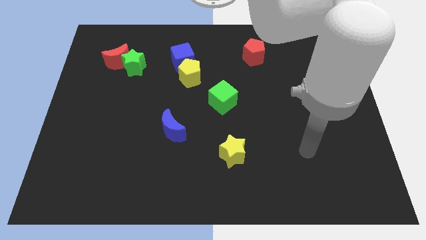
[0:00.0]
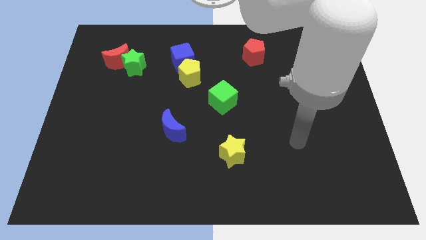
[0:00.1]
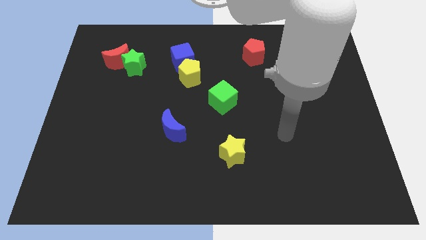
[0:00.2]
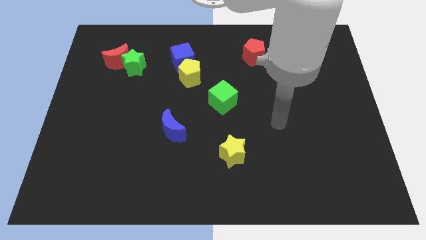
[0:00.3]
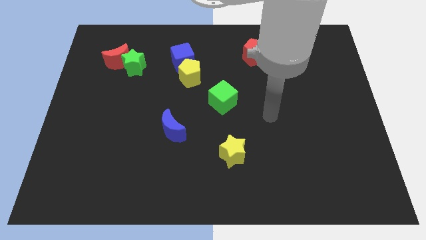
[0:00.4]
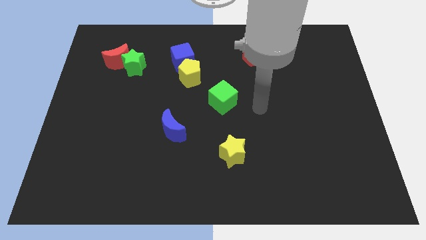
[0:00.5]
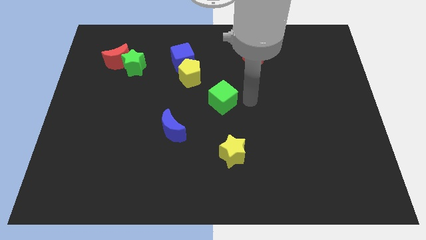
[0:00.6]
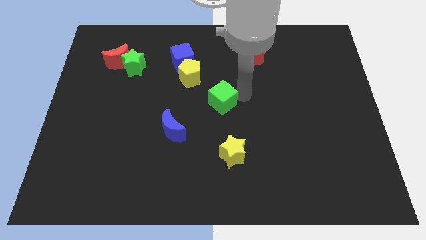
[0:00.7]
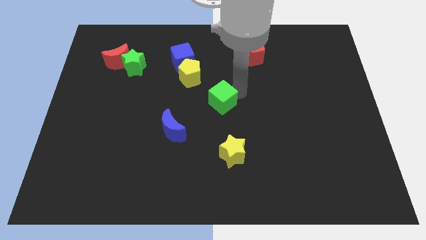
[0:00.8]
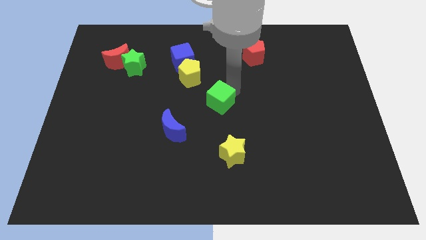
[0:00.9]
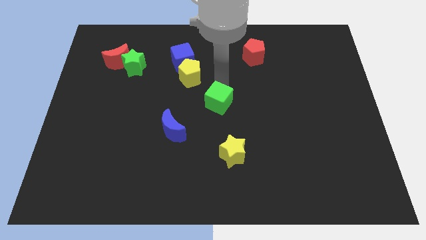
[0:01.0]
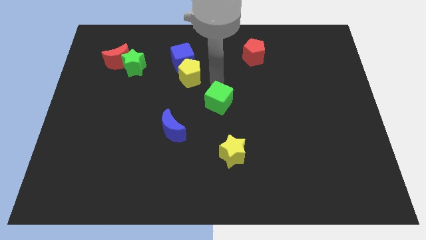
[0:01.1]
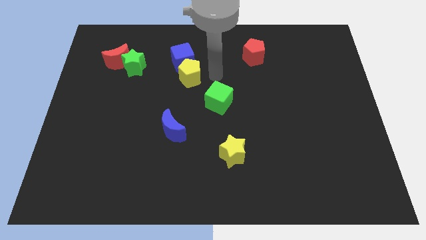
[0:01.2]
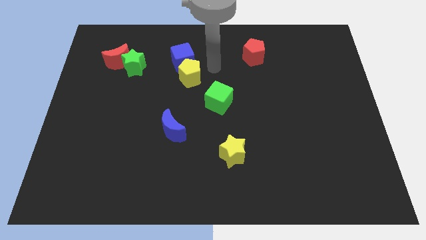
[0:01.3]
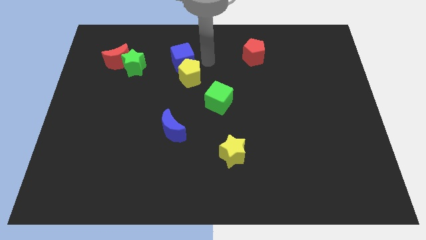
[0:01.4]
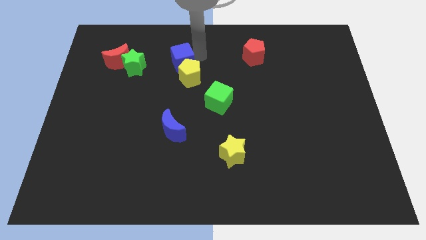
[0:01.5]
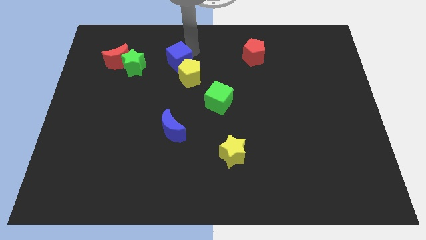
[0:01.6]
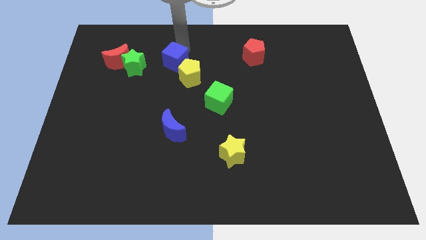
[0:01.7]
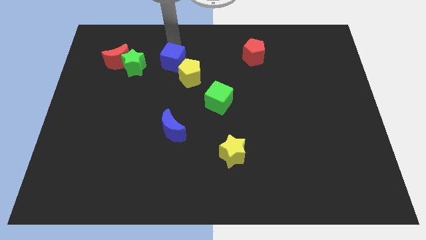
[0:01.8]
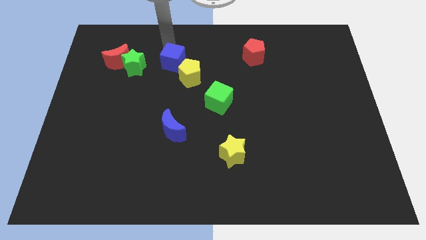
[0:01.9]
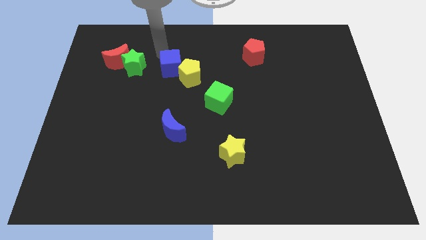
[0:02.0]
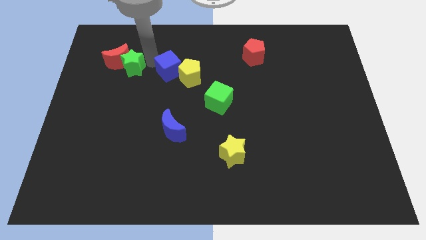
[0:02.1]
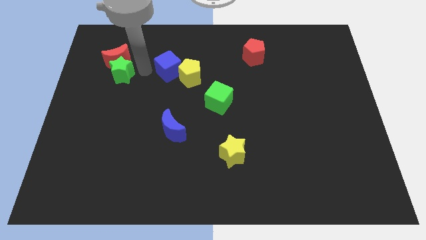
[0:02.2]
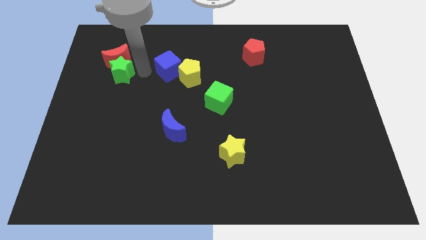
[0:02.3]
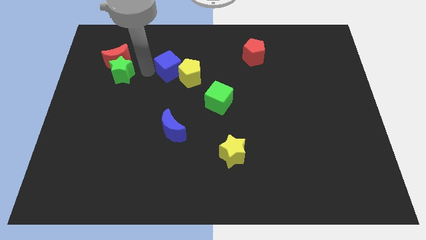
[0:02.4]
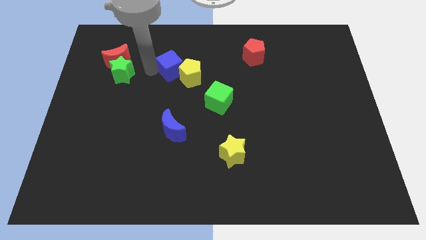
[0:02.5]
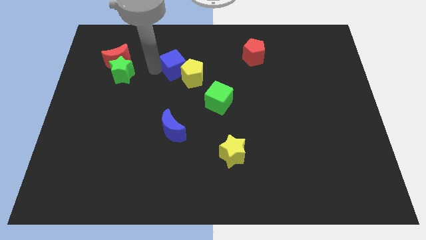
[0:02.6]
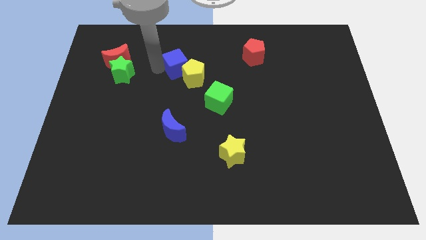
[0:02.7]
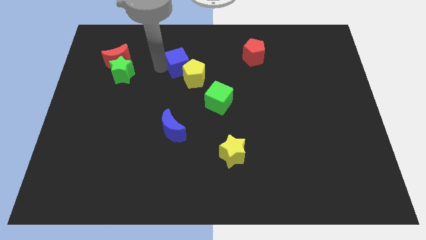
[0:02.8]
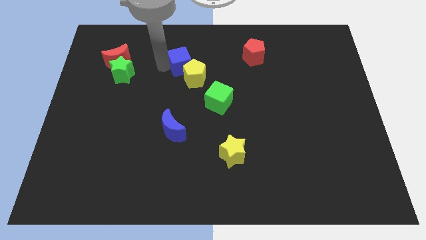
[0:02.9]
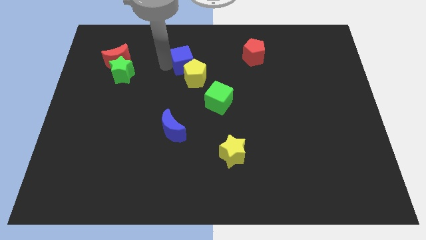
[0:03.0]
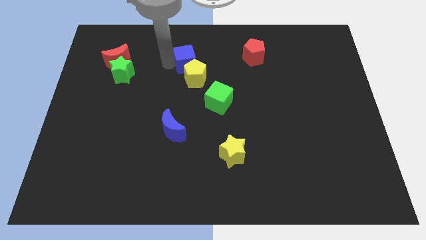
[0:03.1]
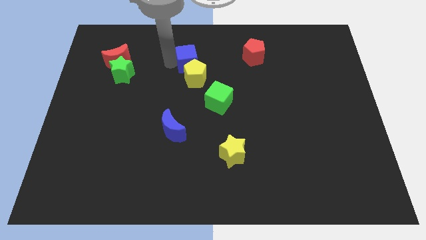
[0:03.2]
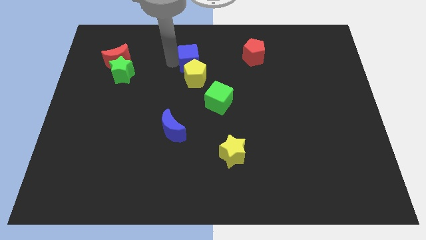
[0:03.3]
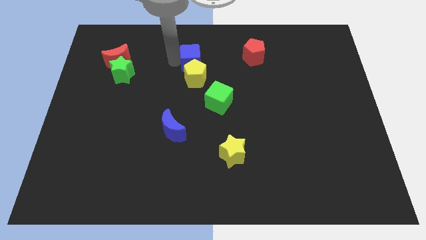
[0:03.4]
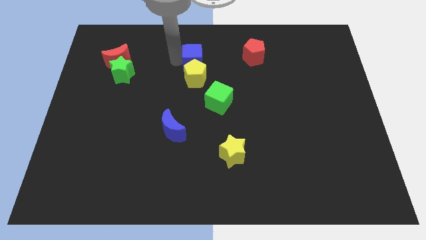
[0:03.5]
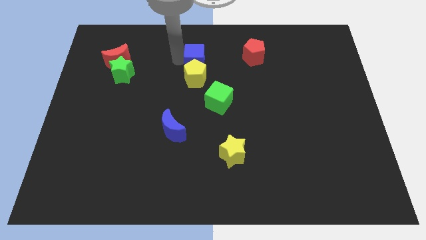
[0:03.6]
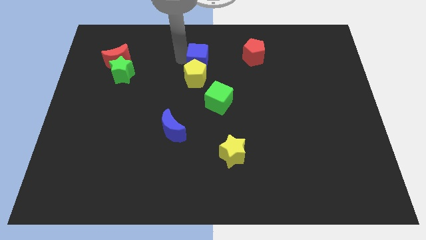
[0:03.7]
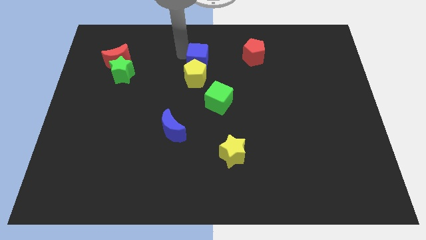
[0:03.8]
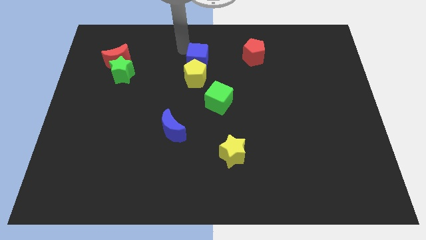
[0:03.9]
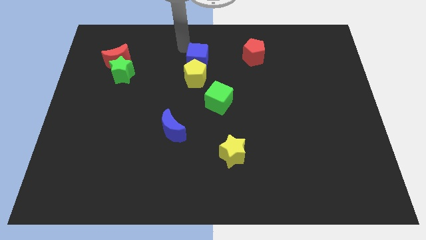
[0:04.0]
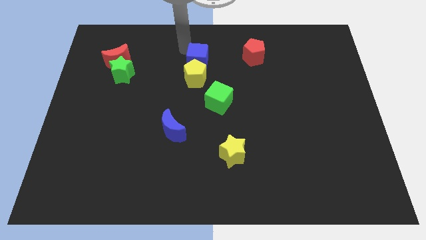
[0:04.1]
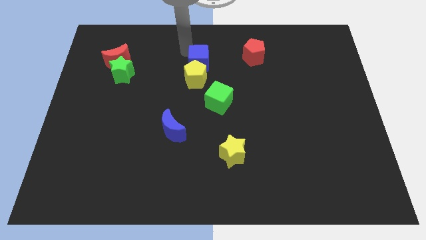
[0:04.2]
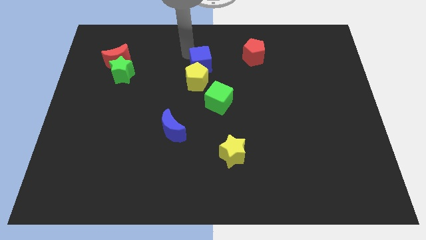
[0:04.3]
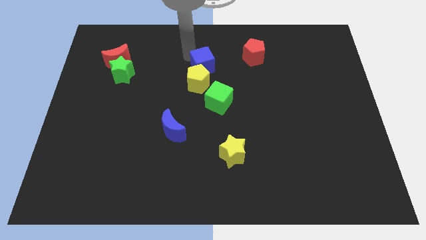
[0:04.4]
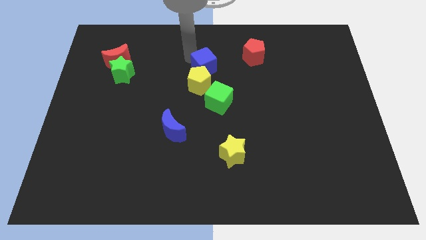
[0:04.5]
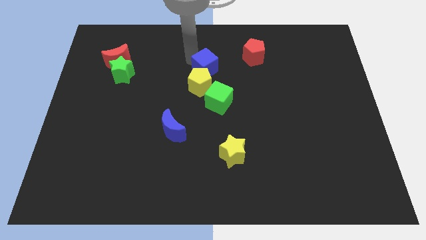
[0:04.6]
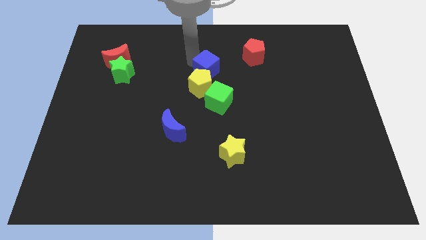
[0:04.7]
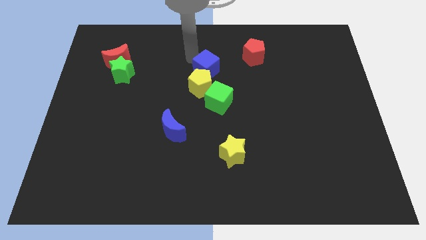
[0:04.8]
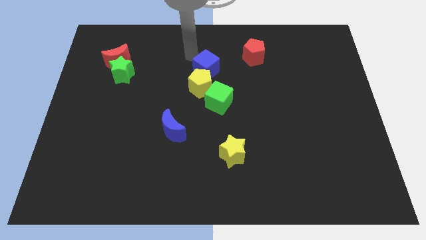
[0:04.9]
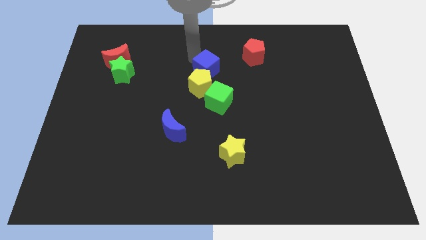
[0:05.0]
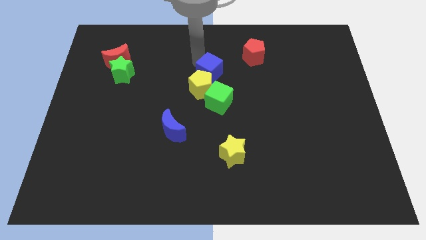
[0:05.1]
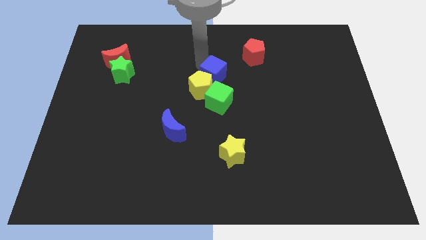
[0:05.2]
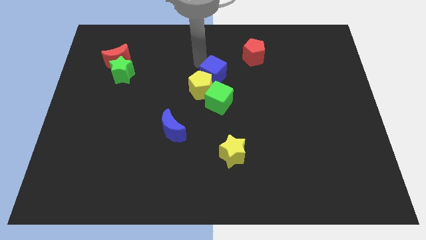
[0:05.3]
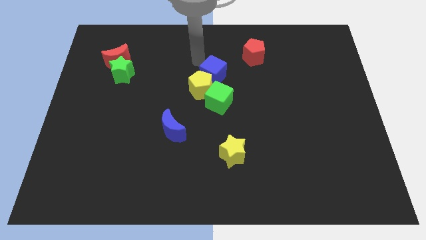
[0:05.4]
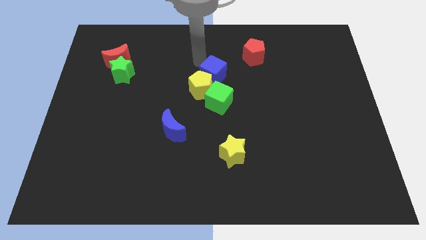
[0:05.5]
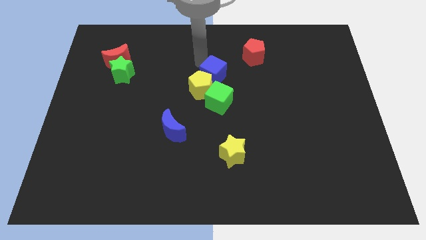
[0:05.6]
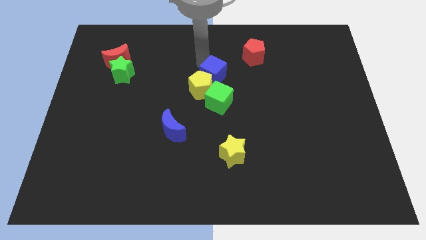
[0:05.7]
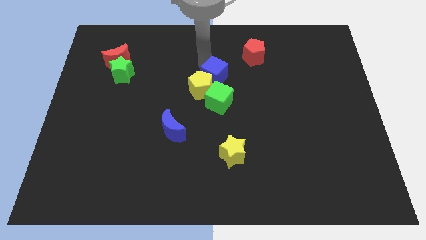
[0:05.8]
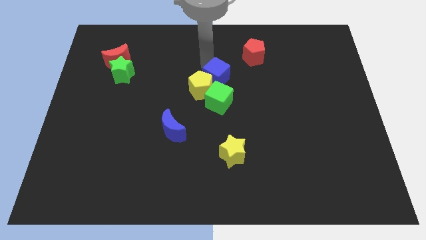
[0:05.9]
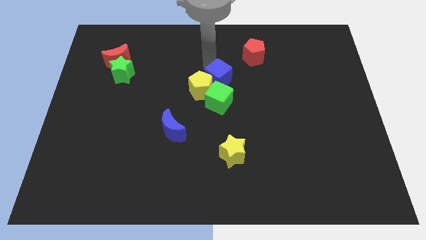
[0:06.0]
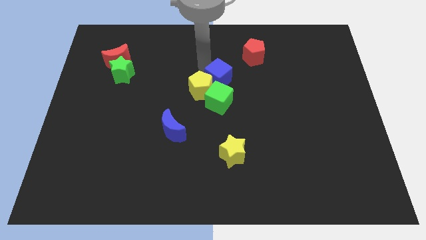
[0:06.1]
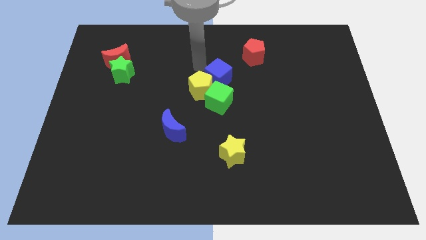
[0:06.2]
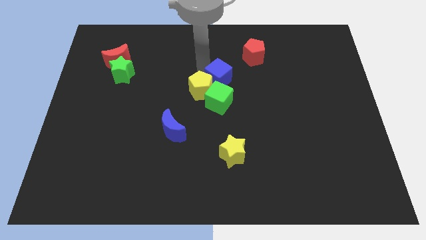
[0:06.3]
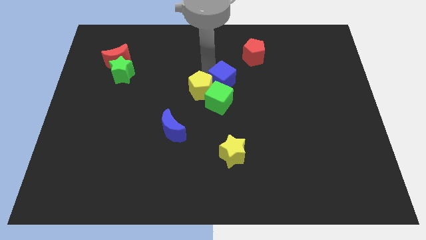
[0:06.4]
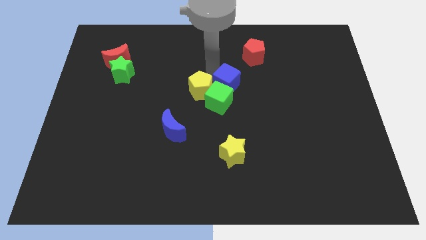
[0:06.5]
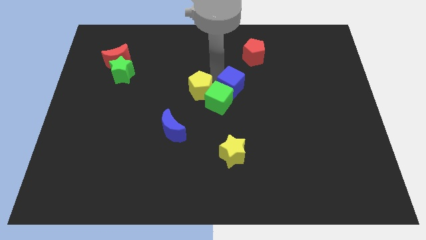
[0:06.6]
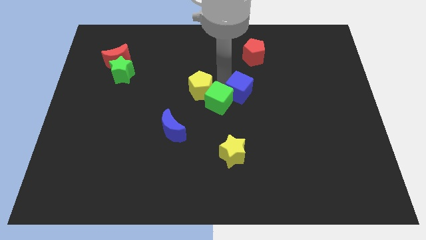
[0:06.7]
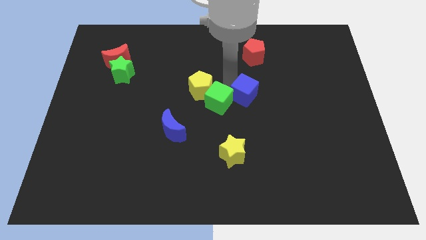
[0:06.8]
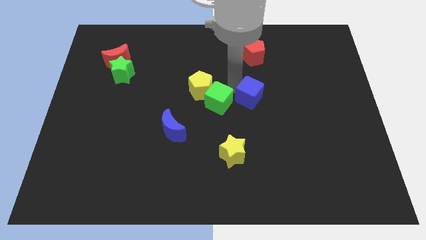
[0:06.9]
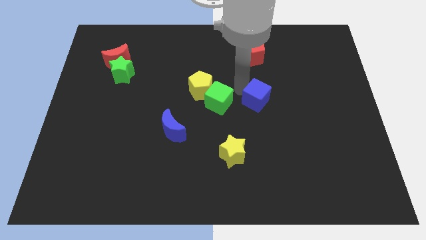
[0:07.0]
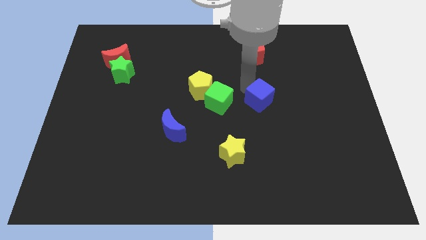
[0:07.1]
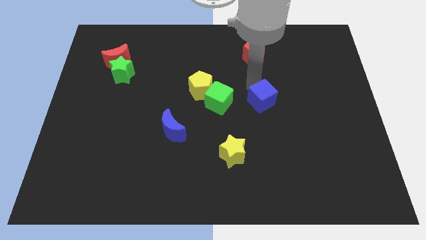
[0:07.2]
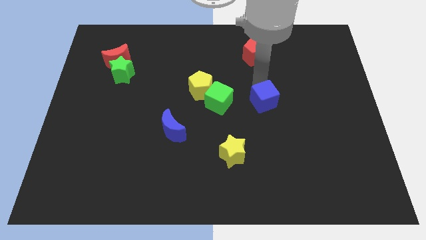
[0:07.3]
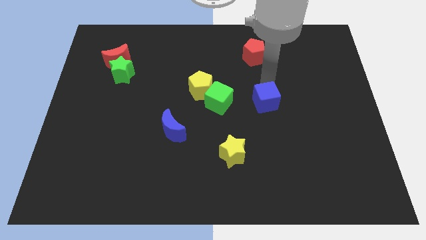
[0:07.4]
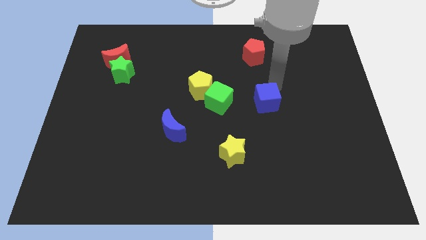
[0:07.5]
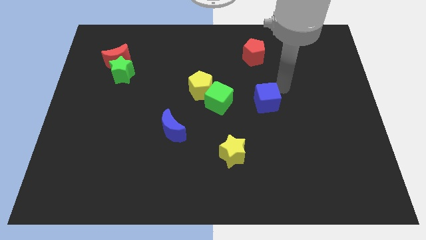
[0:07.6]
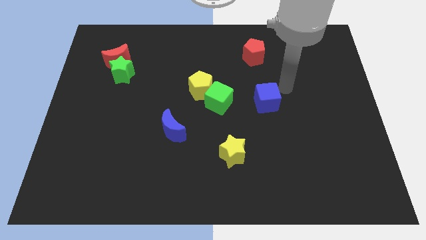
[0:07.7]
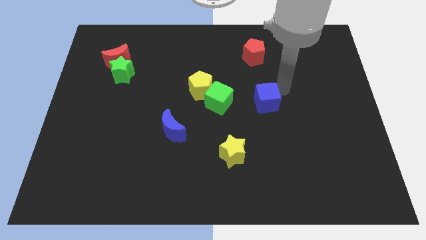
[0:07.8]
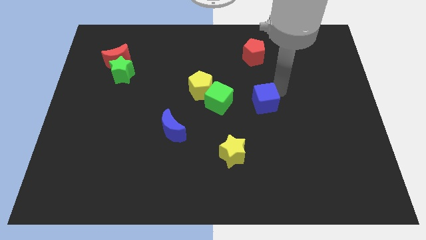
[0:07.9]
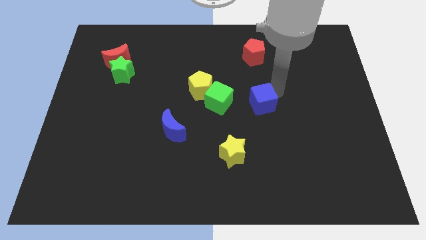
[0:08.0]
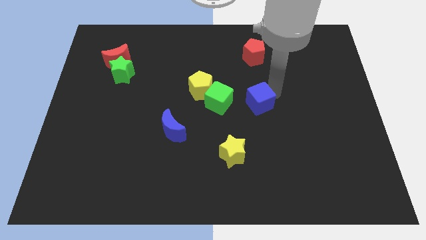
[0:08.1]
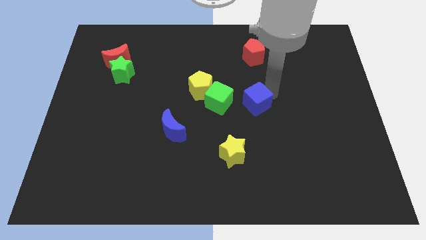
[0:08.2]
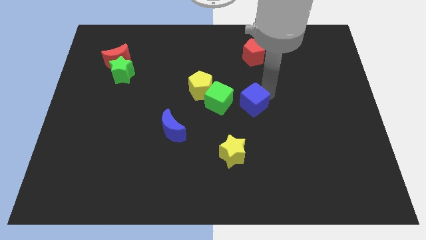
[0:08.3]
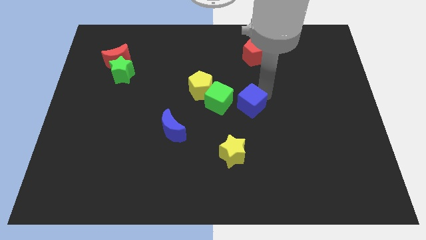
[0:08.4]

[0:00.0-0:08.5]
push the blue cube to the bottom right side of the green cube
